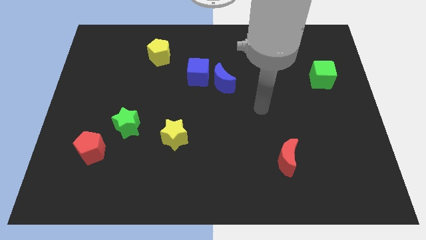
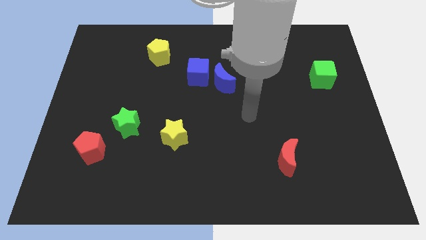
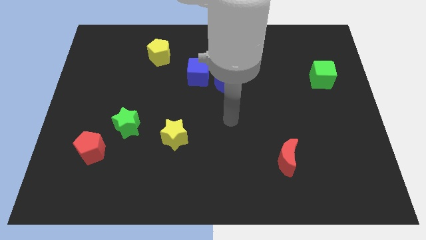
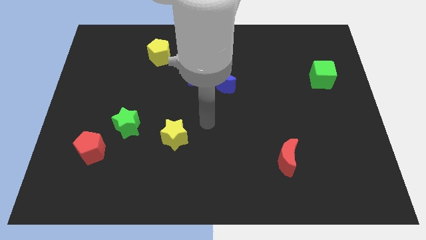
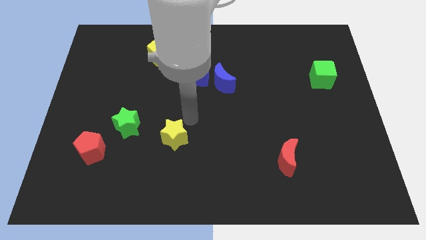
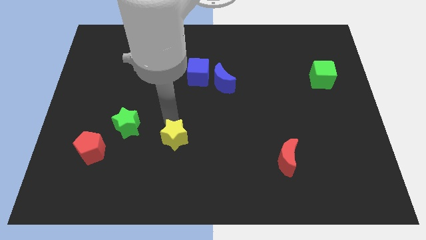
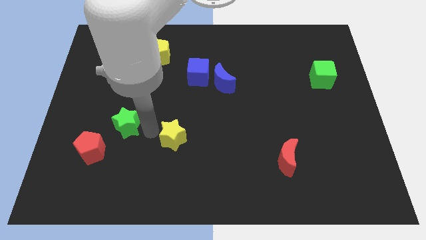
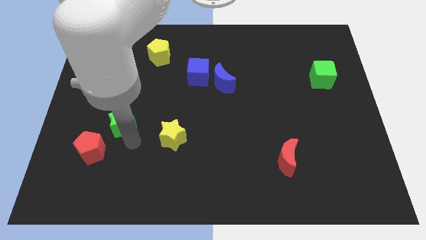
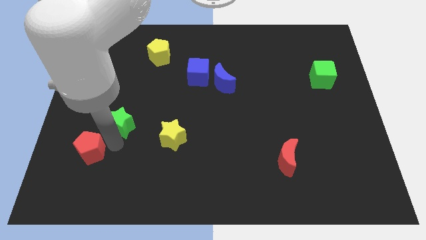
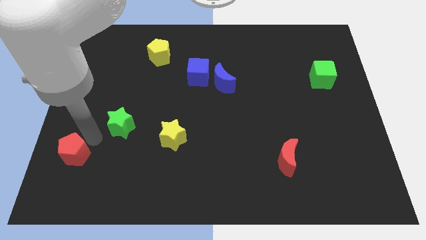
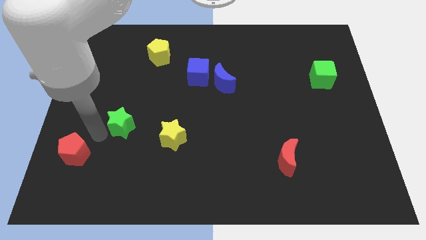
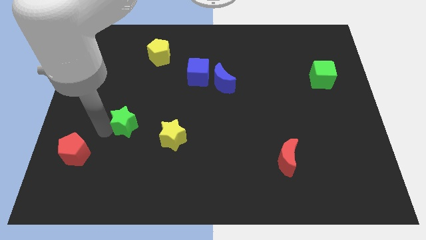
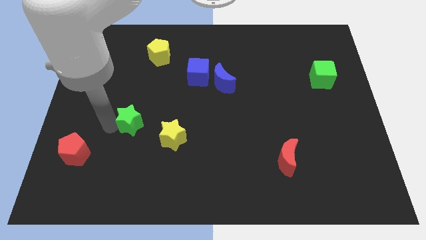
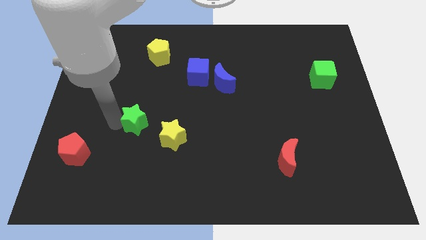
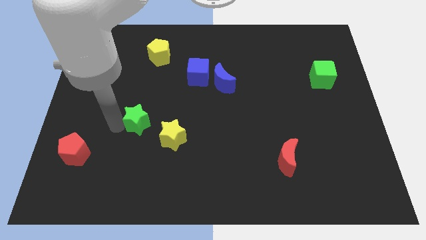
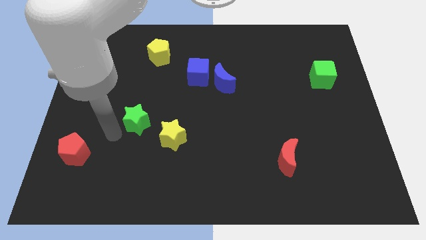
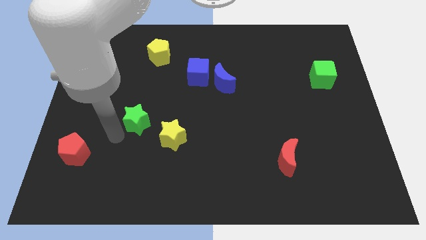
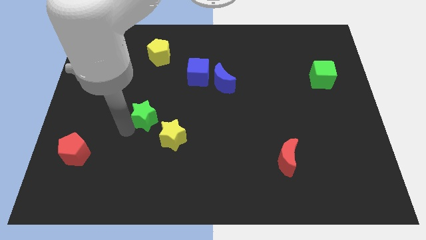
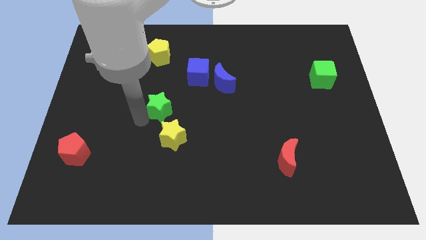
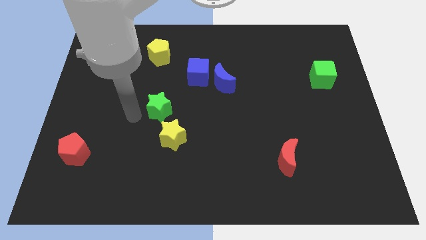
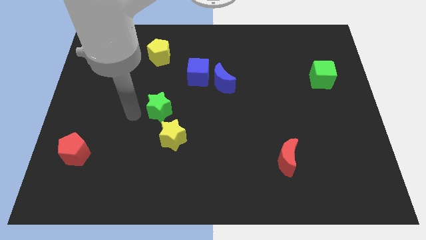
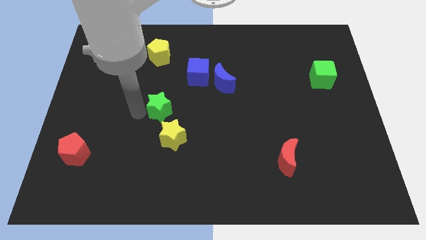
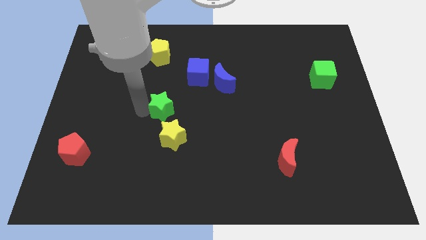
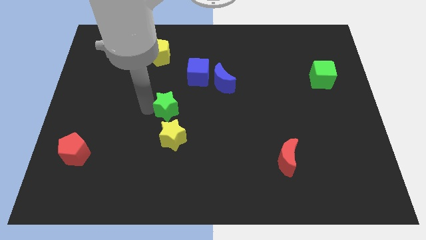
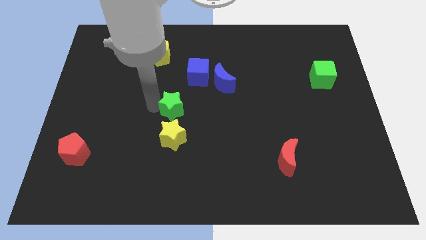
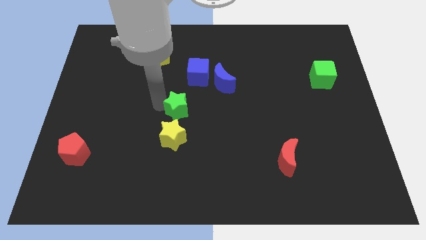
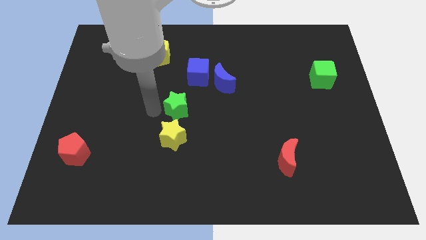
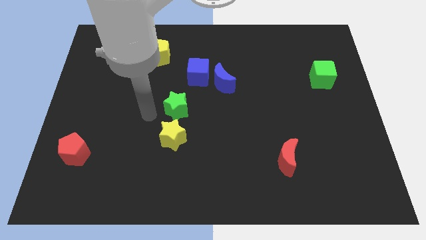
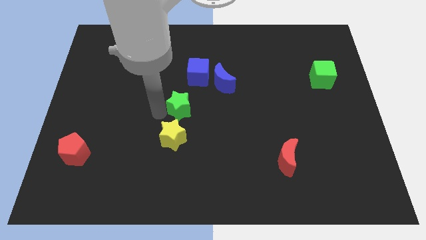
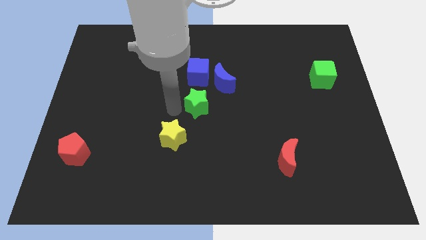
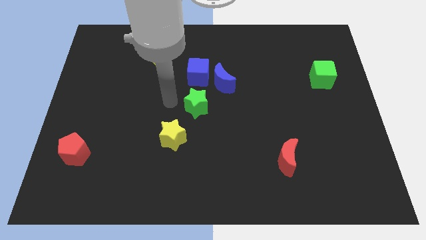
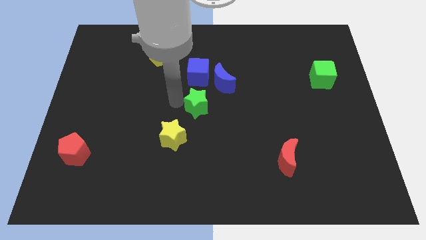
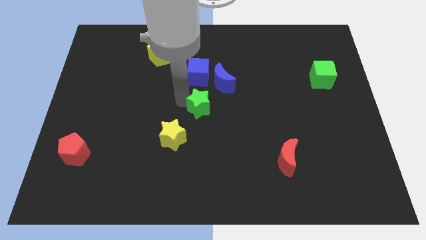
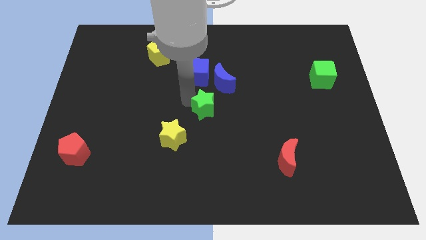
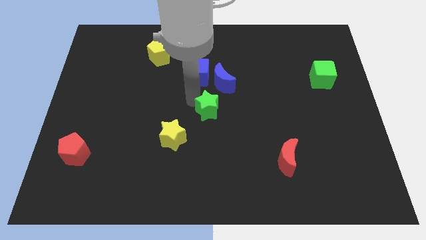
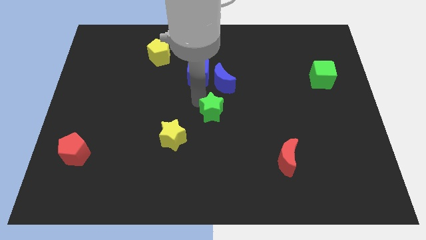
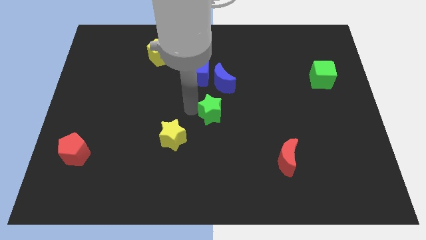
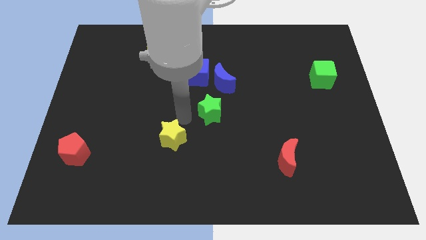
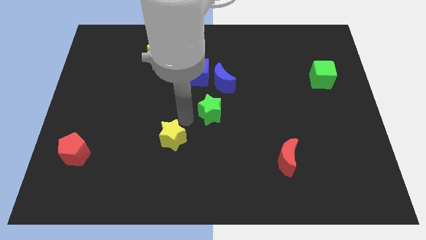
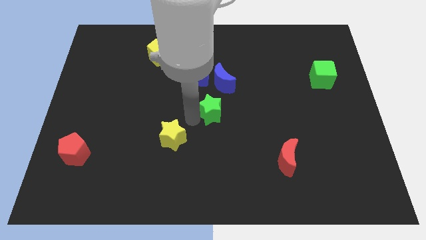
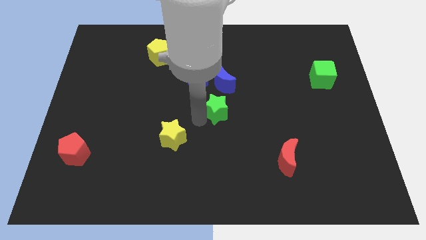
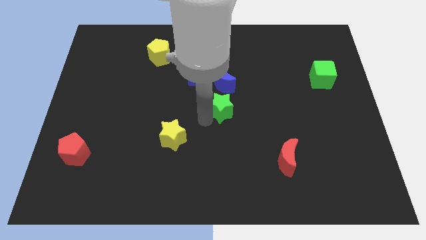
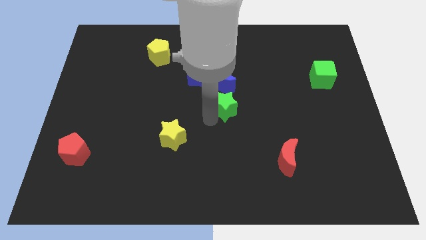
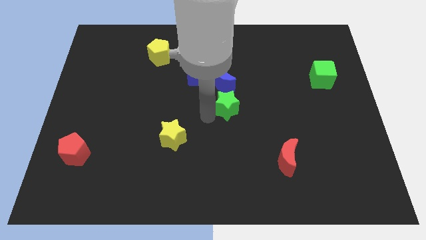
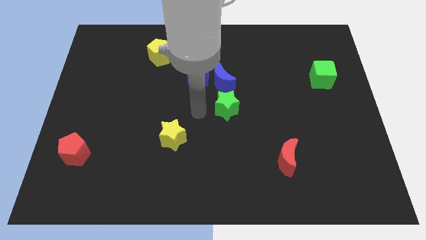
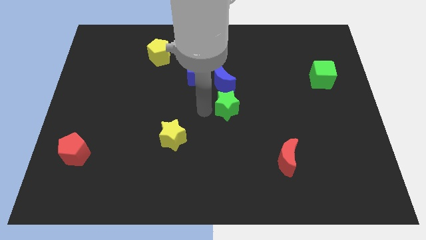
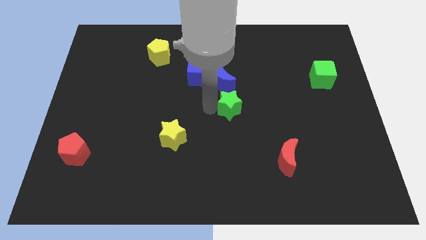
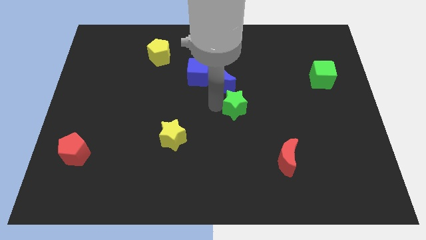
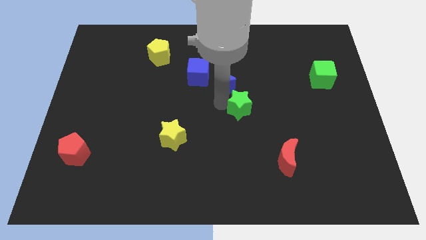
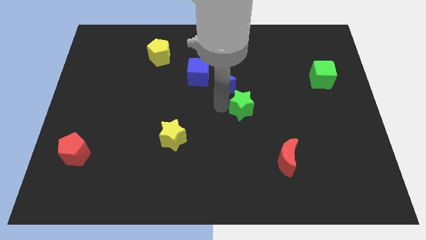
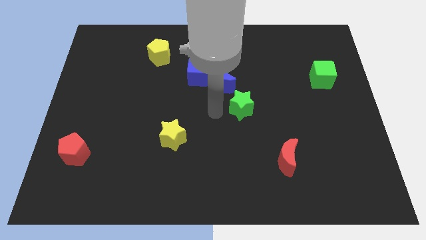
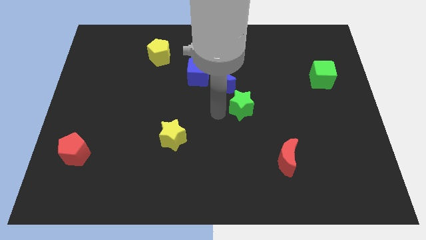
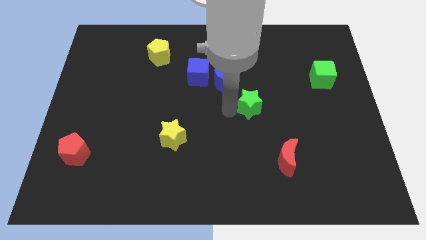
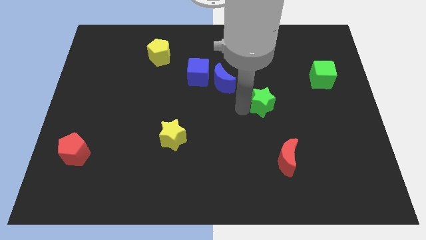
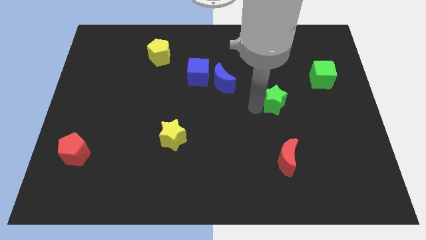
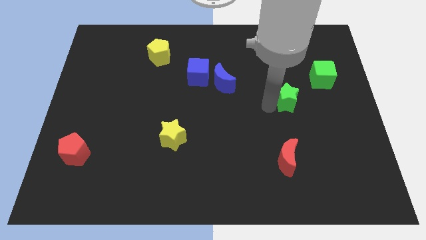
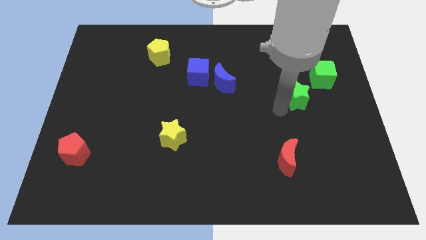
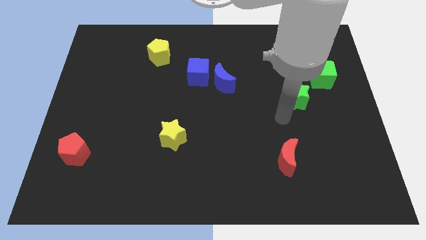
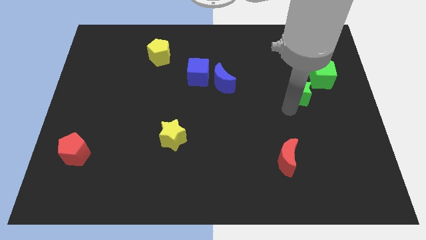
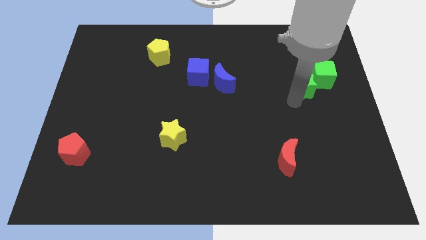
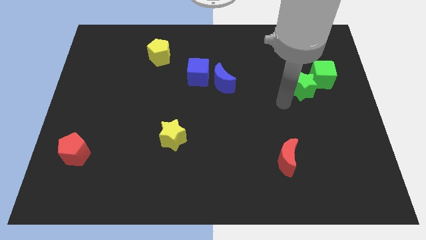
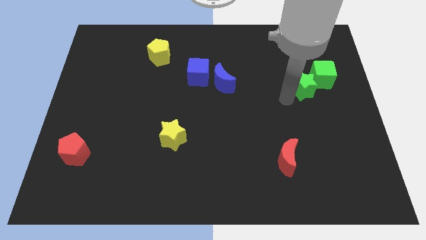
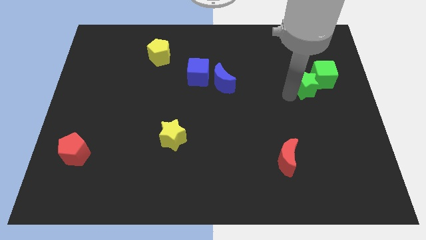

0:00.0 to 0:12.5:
move the green star close to the green cube

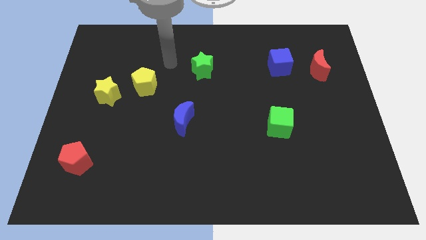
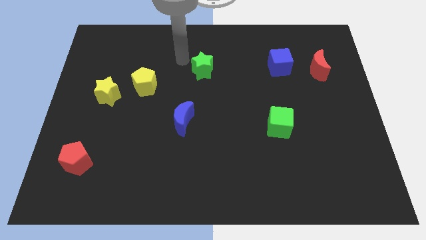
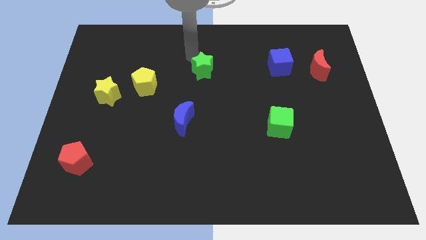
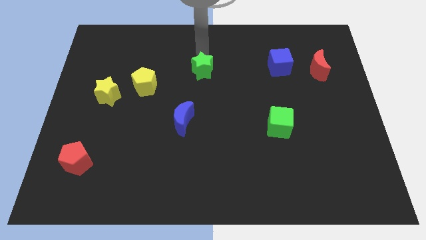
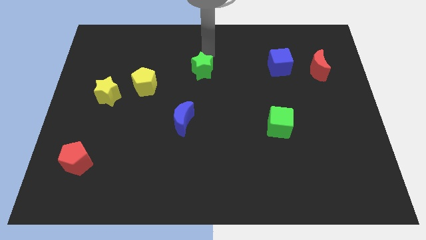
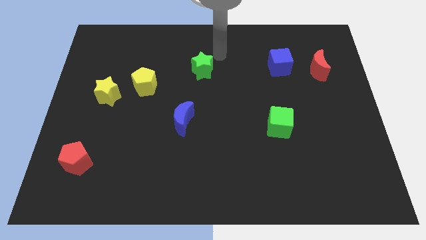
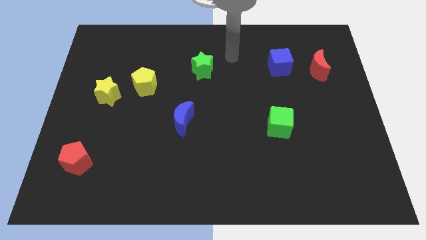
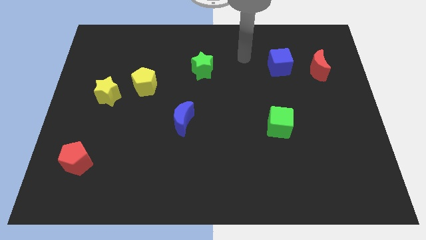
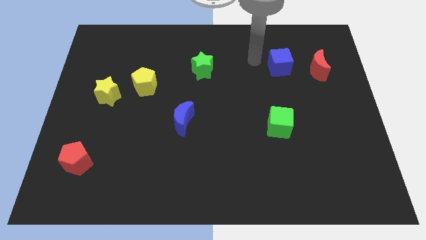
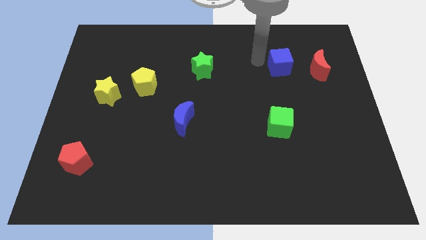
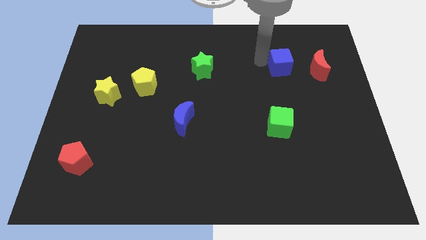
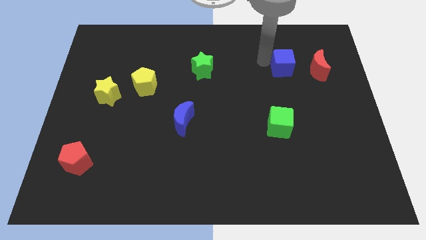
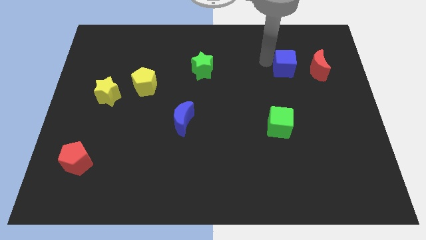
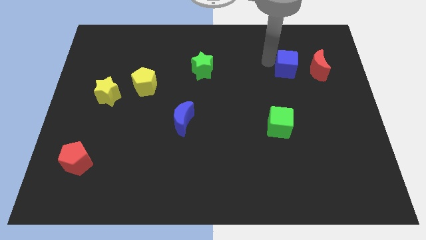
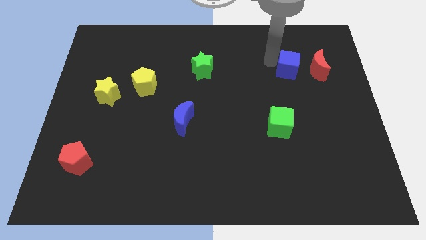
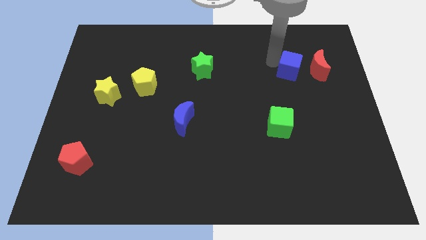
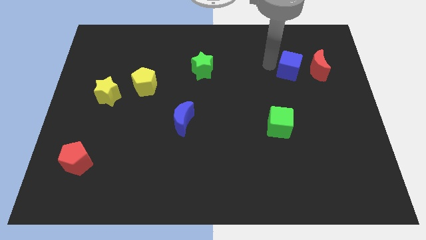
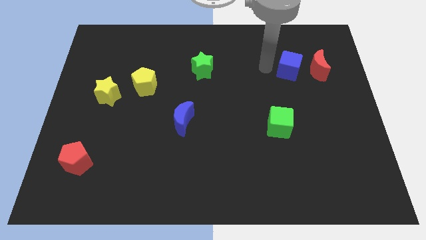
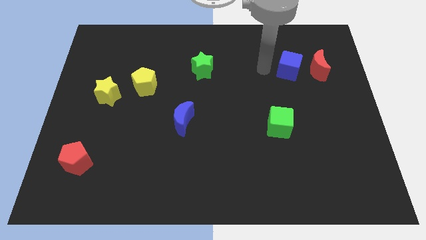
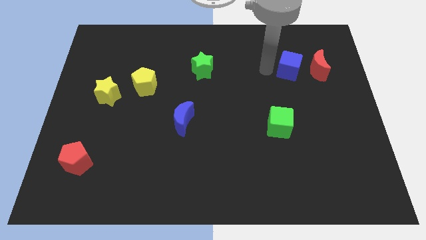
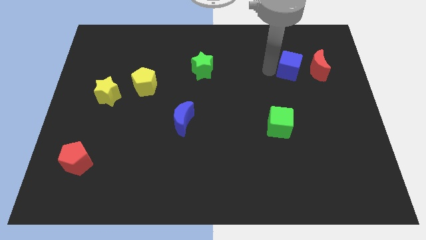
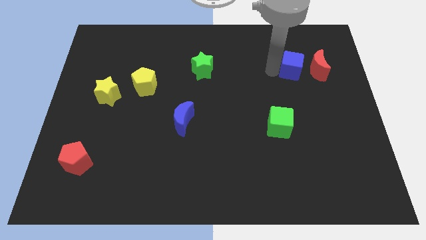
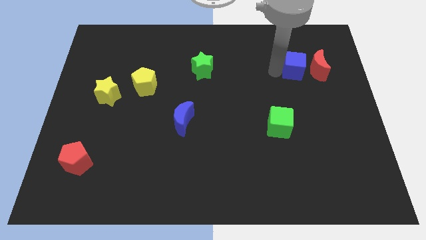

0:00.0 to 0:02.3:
push the blue cube next to the red moon
